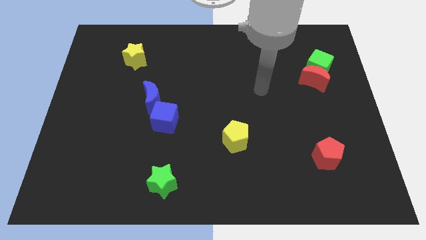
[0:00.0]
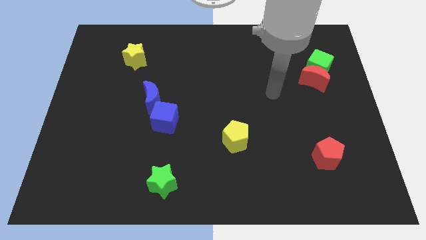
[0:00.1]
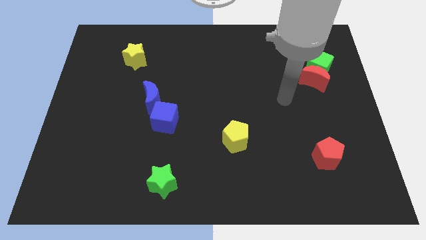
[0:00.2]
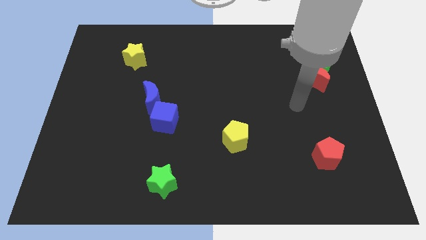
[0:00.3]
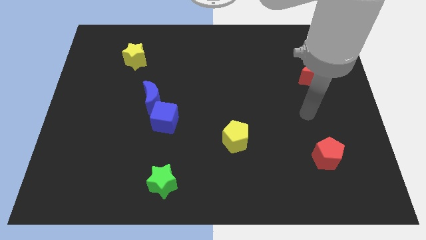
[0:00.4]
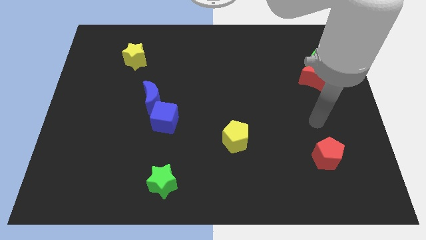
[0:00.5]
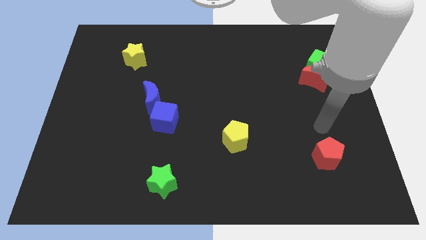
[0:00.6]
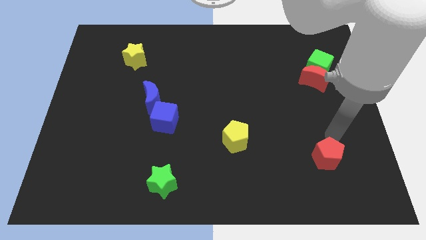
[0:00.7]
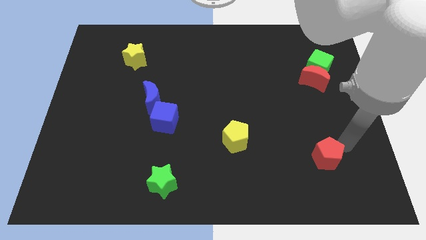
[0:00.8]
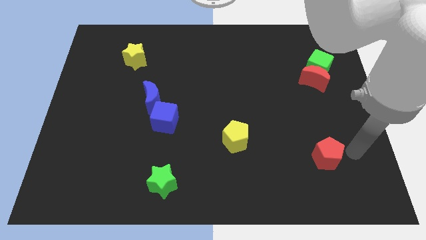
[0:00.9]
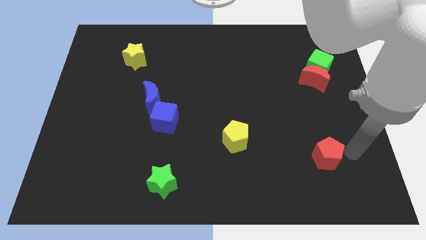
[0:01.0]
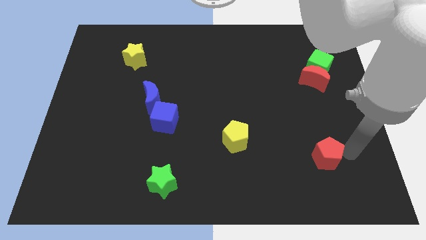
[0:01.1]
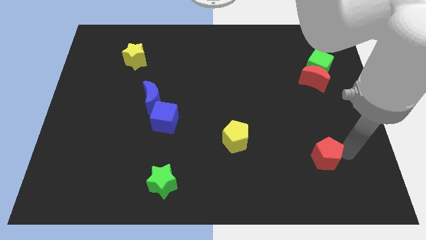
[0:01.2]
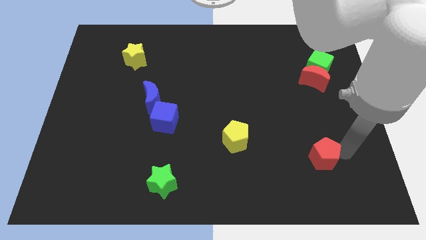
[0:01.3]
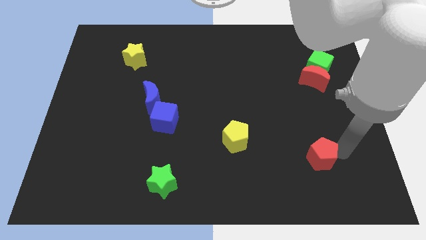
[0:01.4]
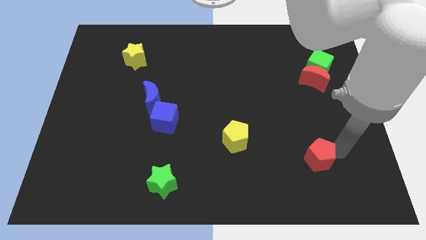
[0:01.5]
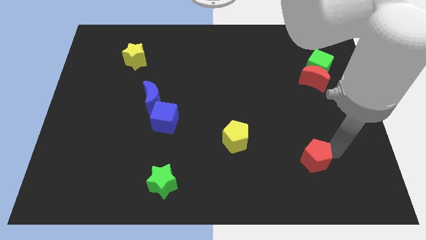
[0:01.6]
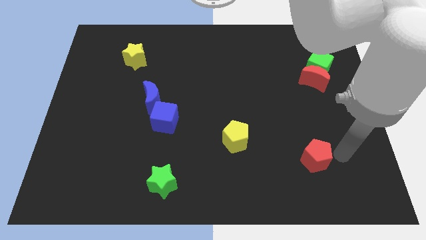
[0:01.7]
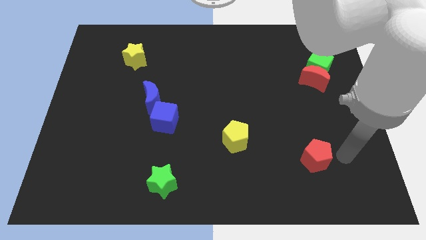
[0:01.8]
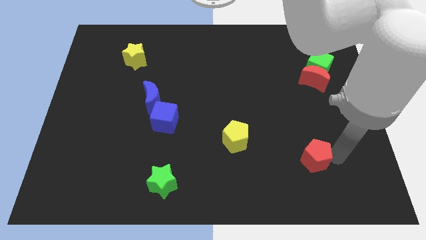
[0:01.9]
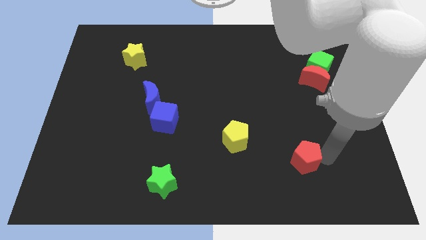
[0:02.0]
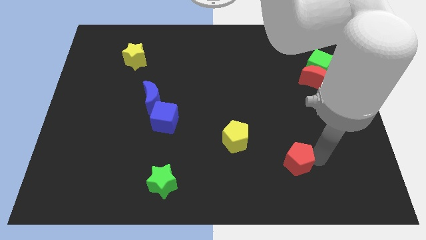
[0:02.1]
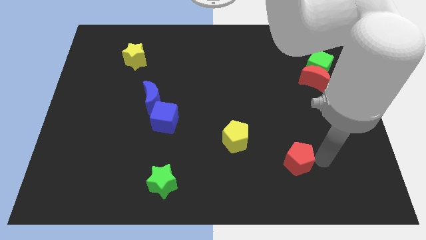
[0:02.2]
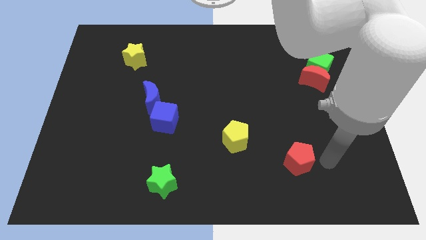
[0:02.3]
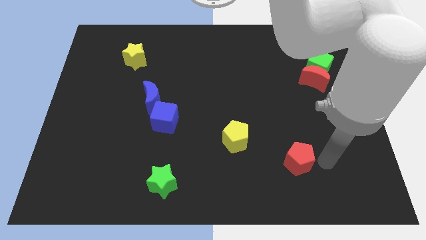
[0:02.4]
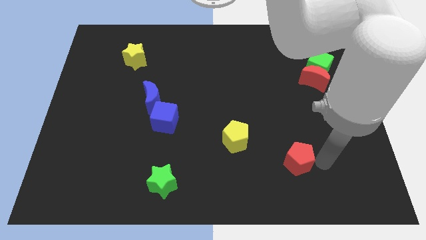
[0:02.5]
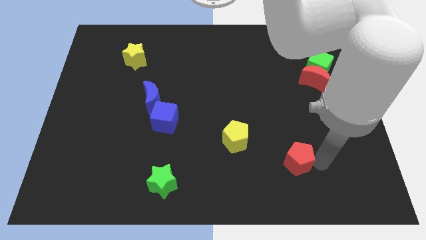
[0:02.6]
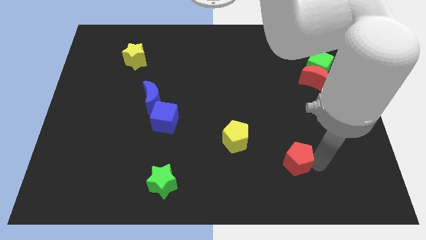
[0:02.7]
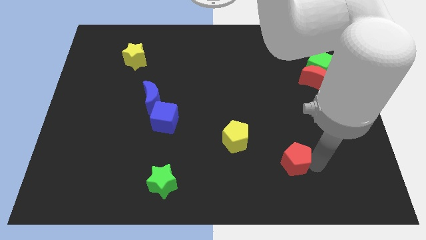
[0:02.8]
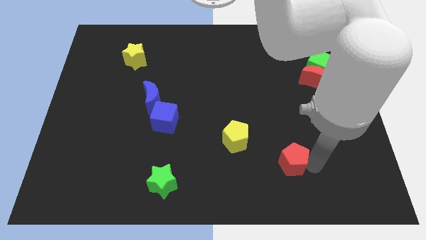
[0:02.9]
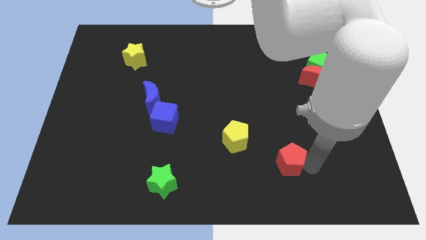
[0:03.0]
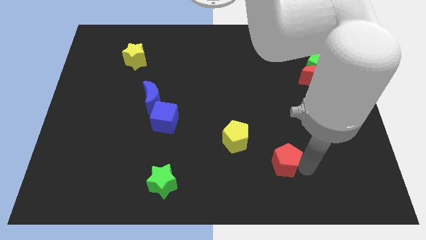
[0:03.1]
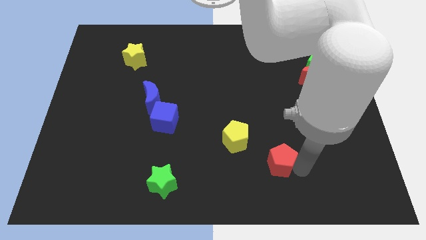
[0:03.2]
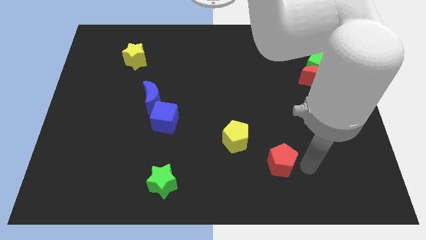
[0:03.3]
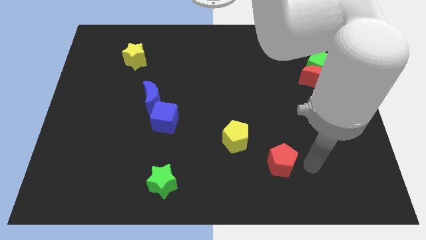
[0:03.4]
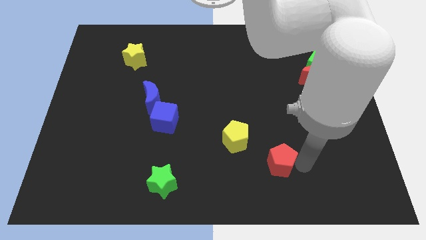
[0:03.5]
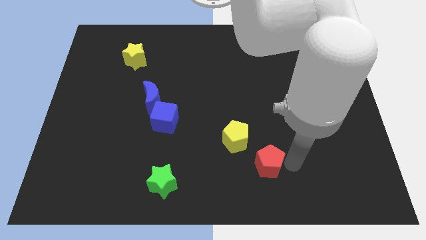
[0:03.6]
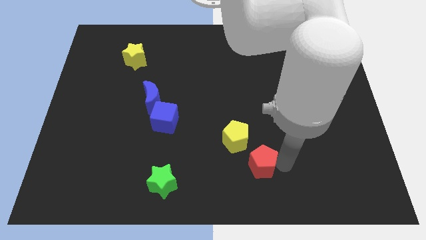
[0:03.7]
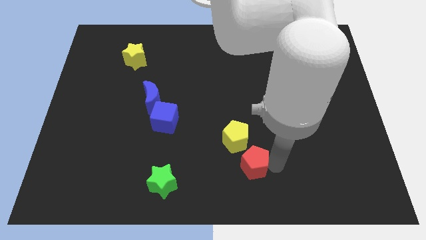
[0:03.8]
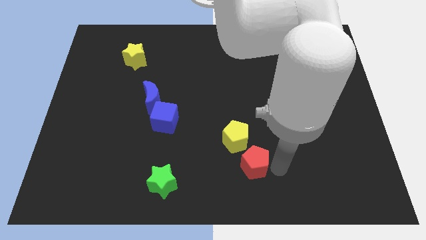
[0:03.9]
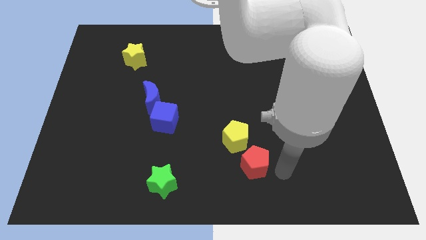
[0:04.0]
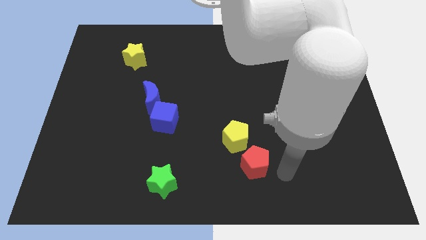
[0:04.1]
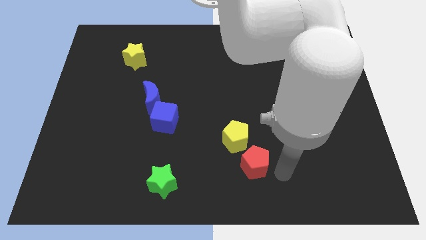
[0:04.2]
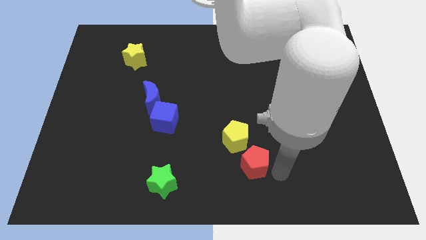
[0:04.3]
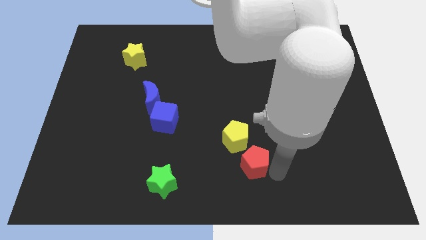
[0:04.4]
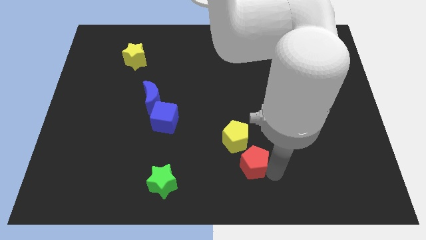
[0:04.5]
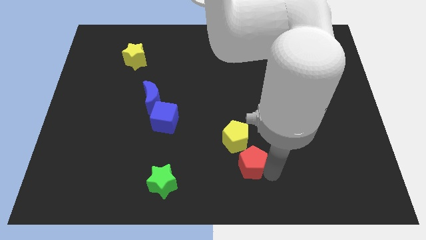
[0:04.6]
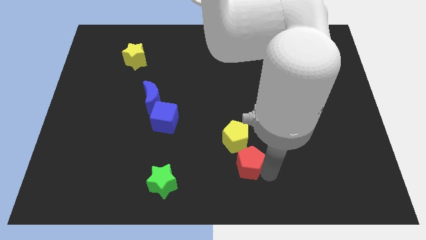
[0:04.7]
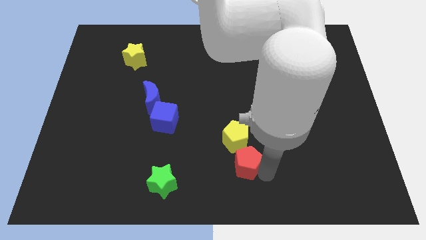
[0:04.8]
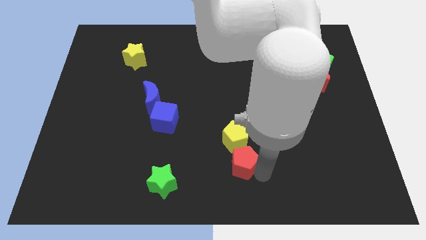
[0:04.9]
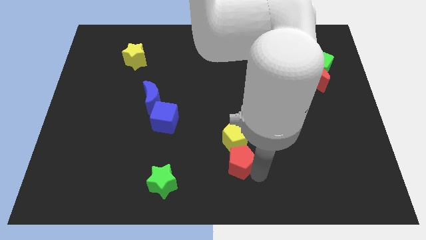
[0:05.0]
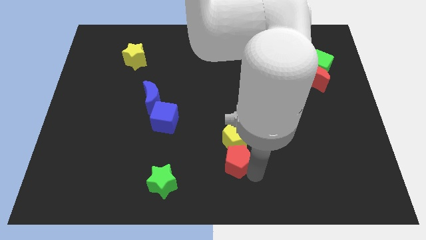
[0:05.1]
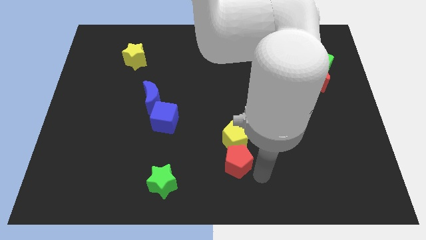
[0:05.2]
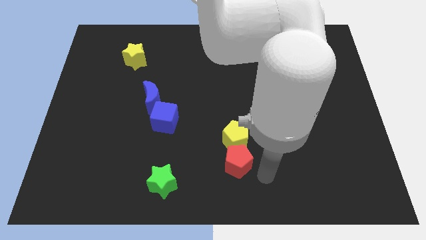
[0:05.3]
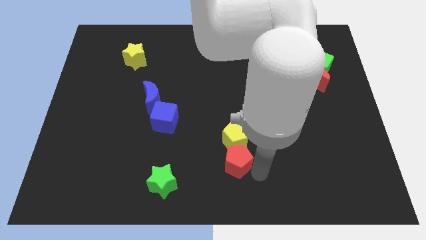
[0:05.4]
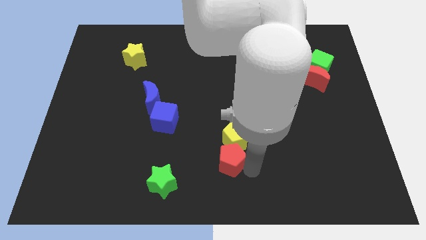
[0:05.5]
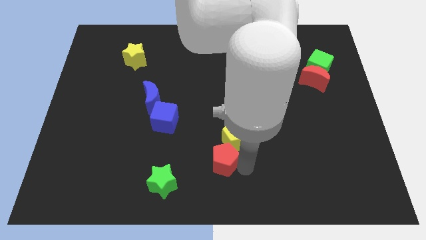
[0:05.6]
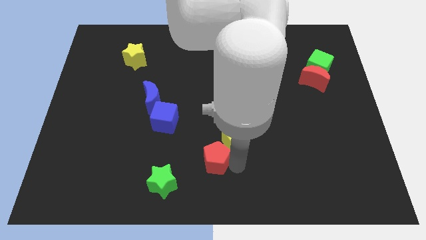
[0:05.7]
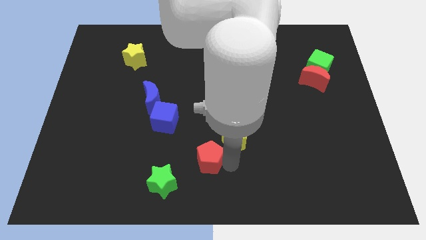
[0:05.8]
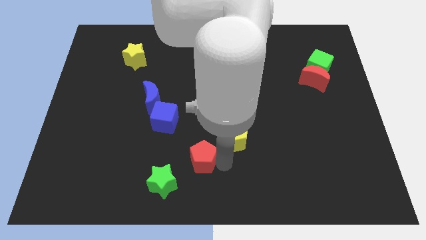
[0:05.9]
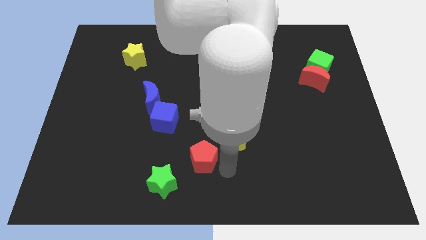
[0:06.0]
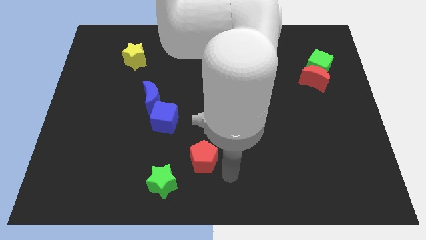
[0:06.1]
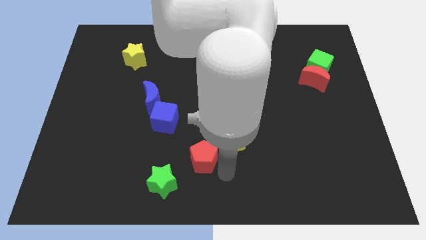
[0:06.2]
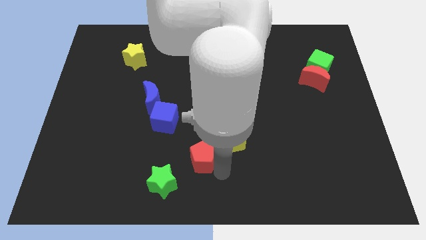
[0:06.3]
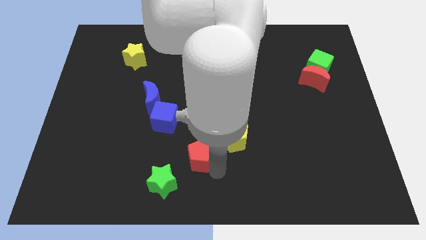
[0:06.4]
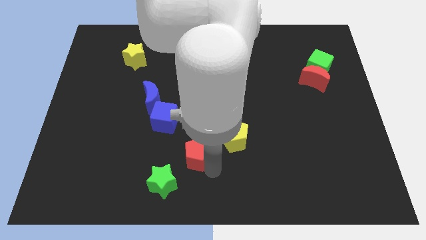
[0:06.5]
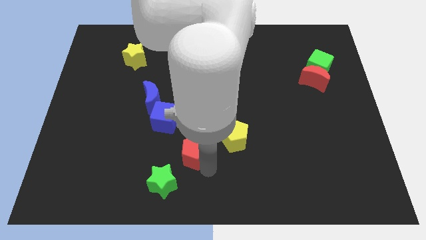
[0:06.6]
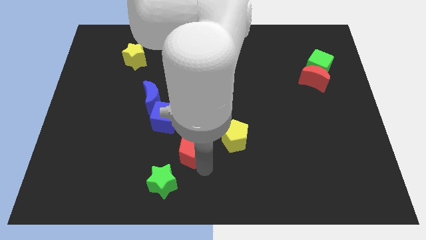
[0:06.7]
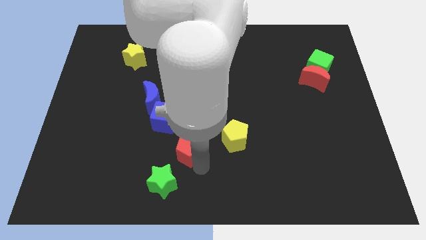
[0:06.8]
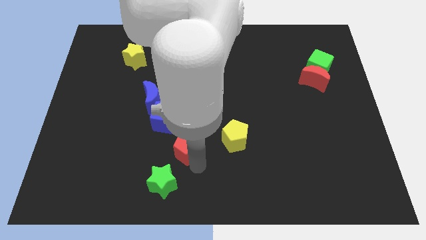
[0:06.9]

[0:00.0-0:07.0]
move the red pentagon above the green star
